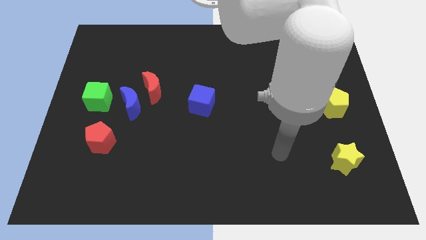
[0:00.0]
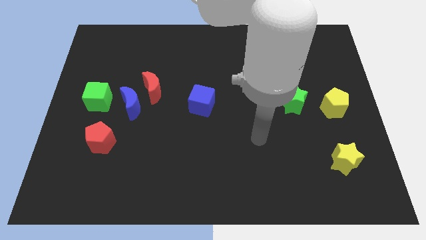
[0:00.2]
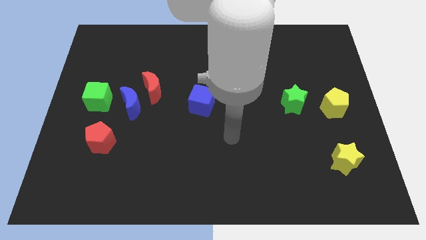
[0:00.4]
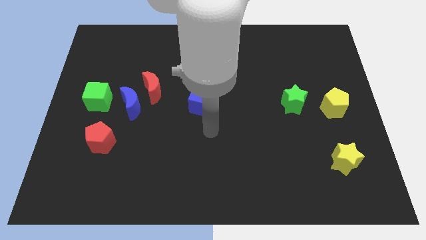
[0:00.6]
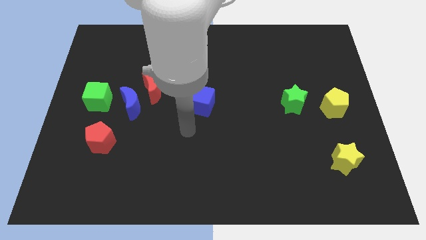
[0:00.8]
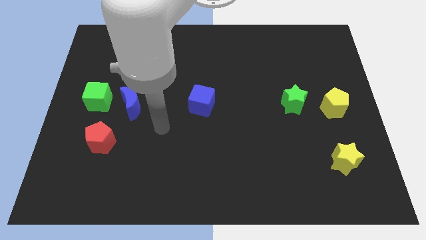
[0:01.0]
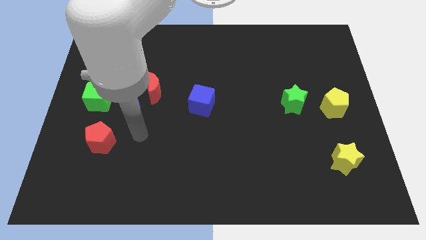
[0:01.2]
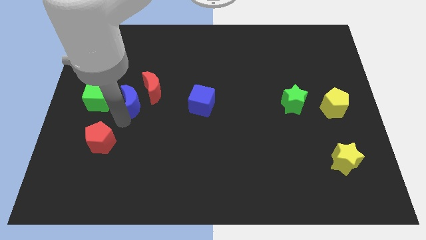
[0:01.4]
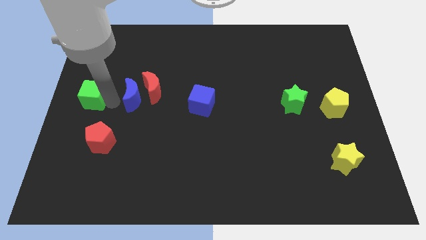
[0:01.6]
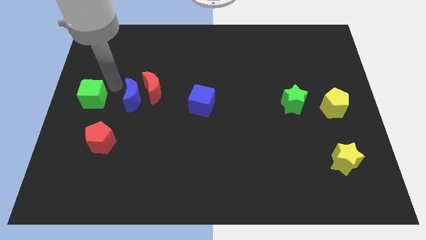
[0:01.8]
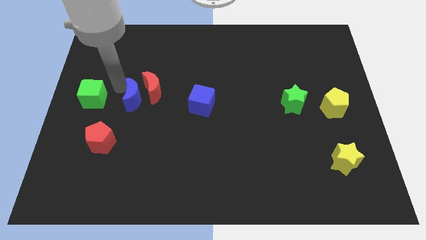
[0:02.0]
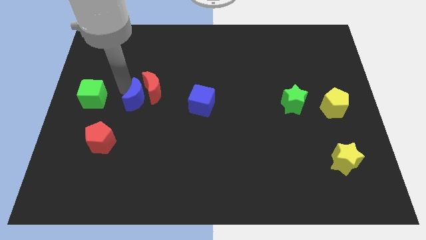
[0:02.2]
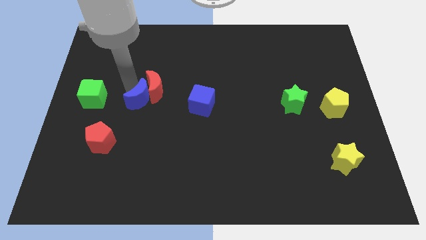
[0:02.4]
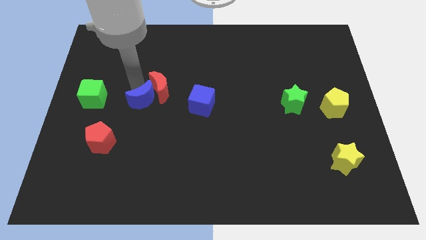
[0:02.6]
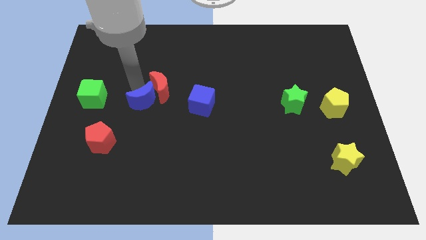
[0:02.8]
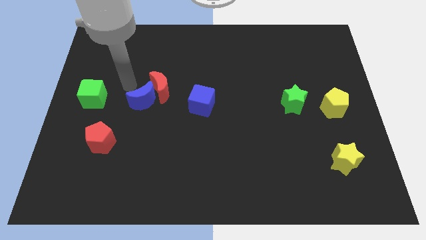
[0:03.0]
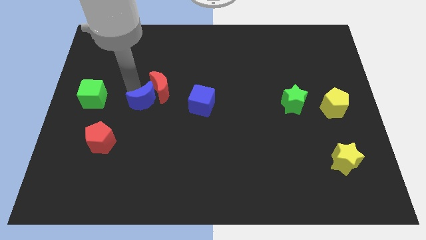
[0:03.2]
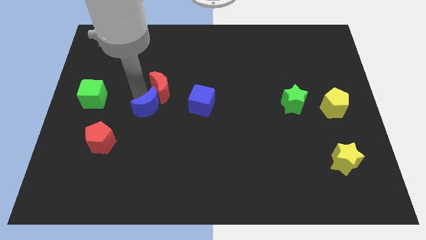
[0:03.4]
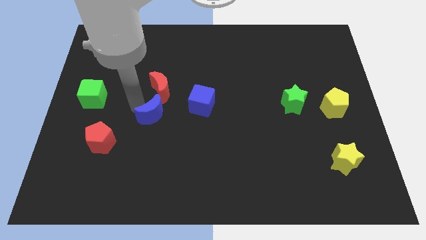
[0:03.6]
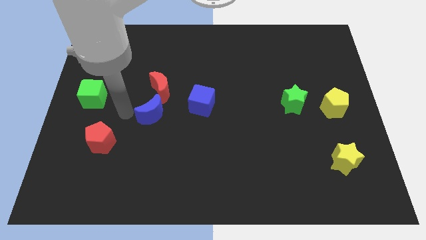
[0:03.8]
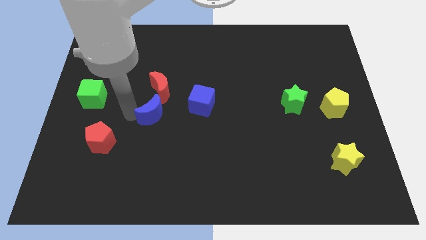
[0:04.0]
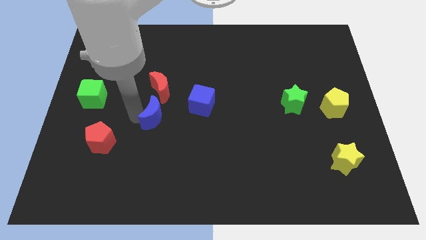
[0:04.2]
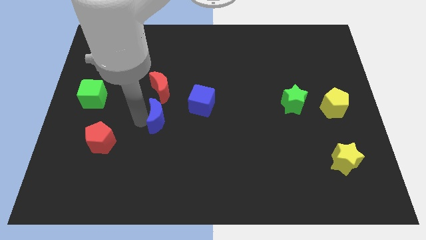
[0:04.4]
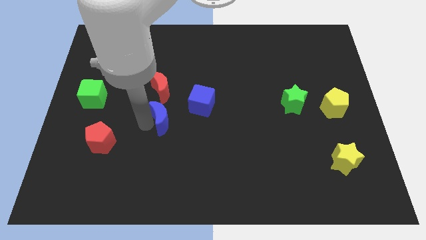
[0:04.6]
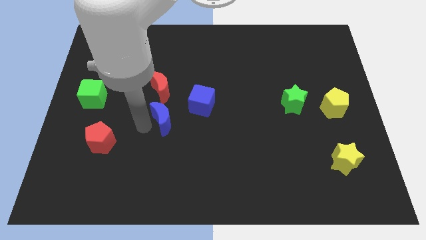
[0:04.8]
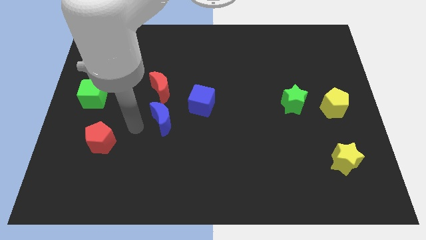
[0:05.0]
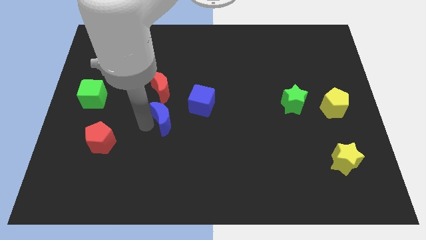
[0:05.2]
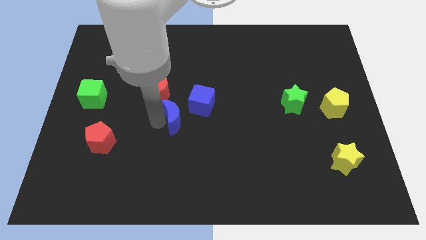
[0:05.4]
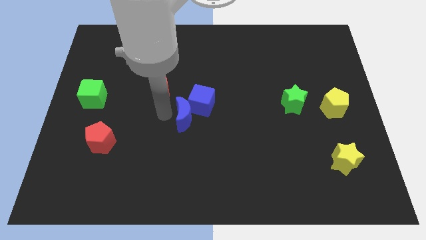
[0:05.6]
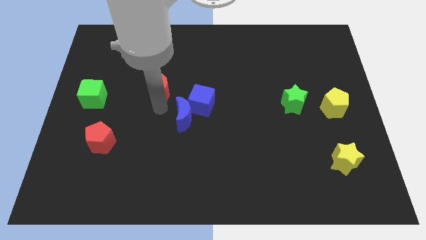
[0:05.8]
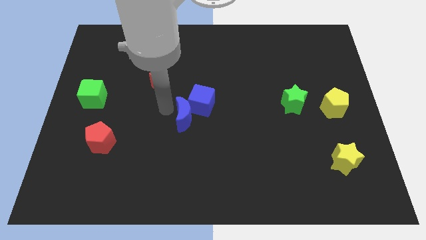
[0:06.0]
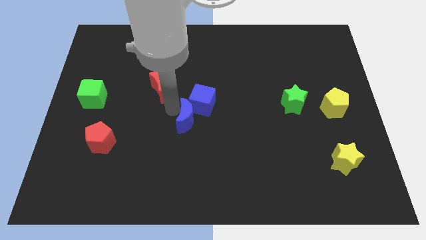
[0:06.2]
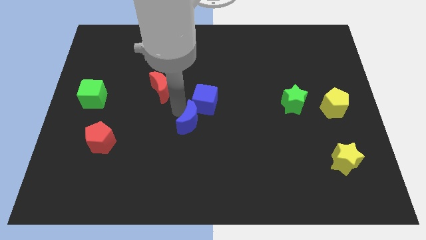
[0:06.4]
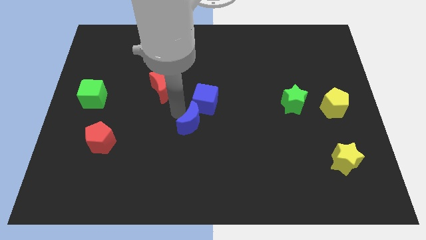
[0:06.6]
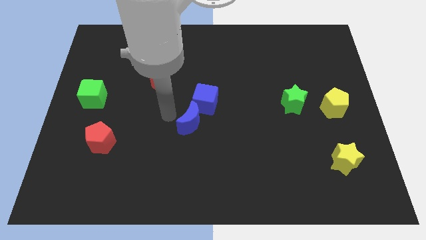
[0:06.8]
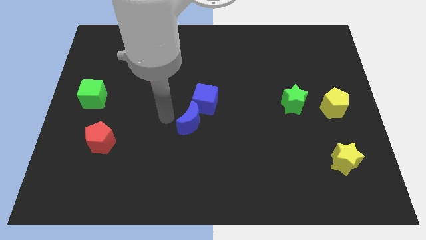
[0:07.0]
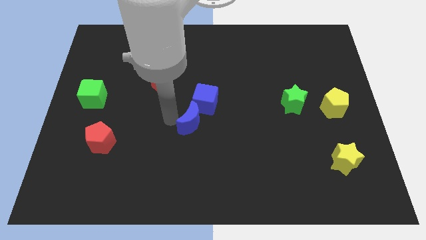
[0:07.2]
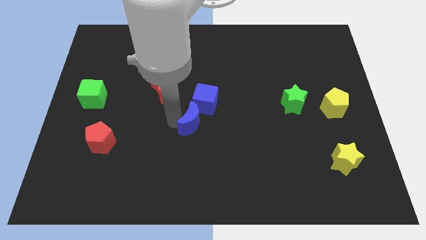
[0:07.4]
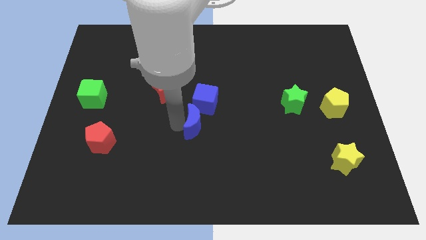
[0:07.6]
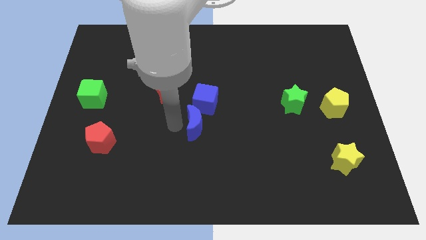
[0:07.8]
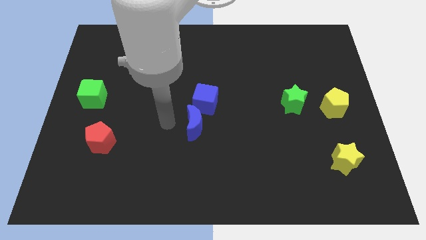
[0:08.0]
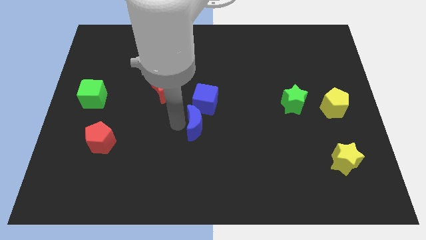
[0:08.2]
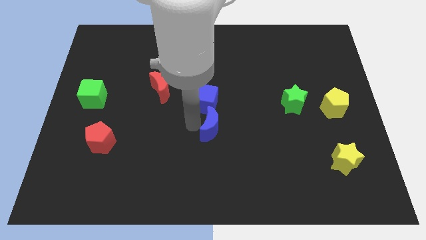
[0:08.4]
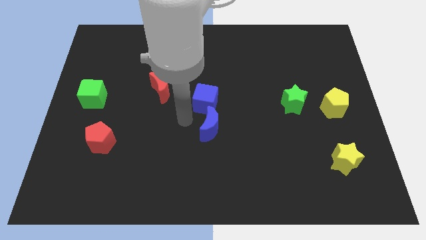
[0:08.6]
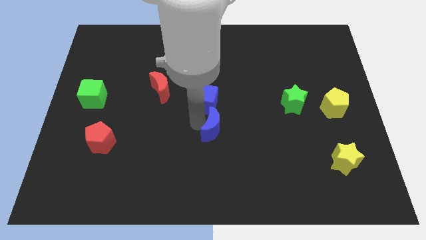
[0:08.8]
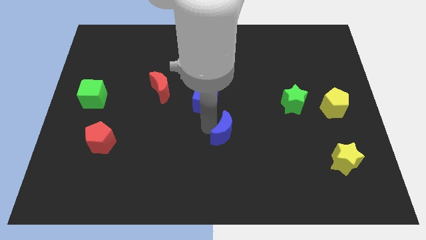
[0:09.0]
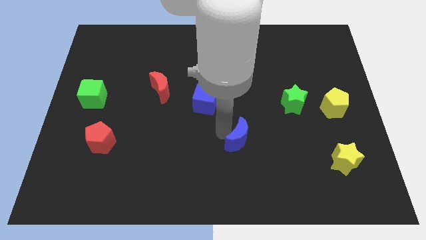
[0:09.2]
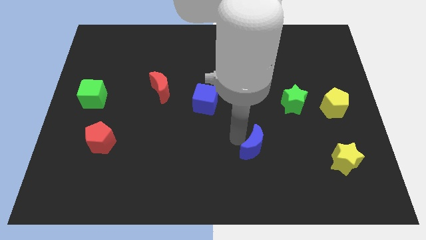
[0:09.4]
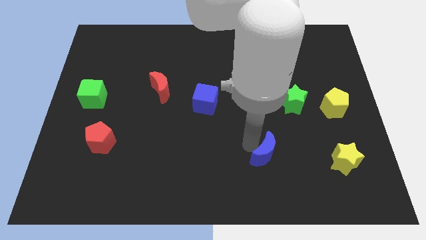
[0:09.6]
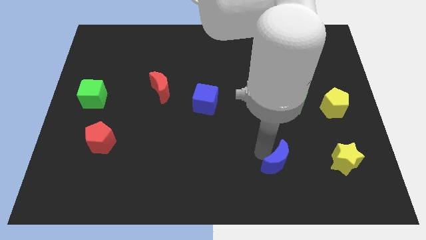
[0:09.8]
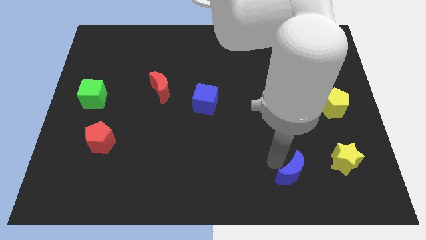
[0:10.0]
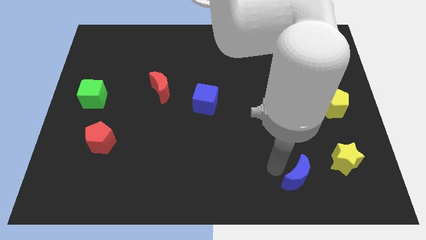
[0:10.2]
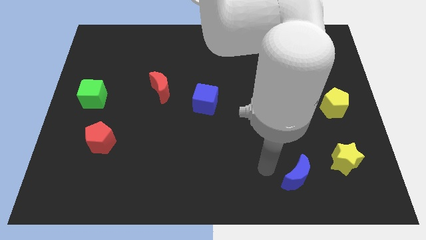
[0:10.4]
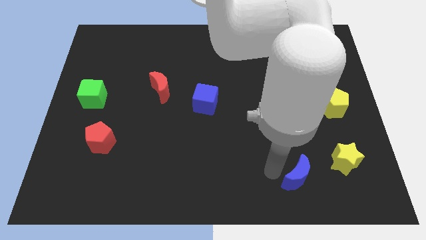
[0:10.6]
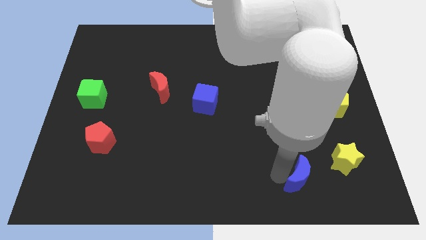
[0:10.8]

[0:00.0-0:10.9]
move the blue moon diagonally down and to the left of the yellow star

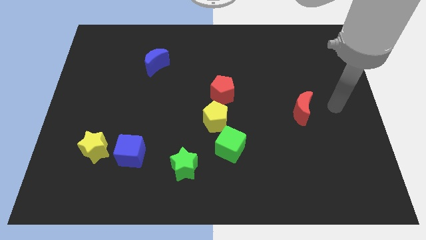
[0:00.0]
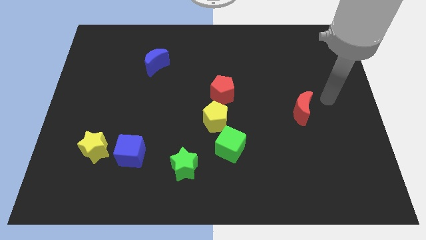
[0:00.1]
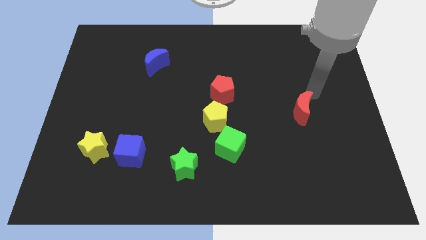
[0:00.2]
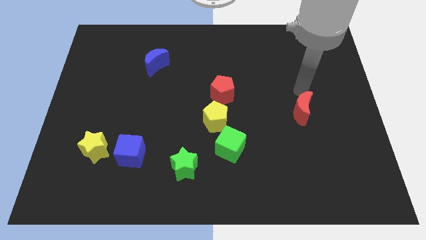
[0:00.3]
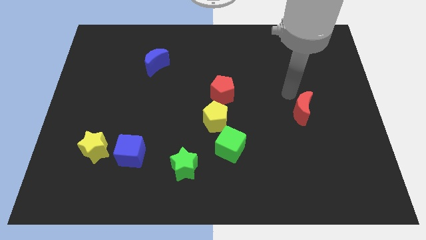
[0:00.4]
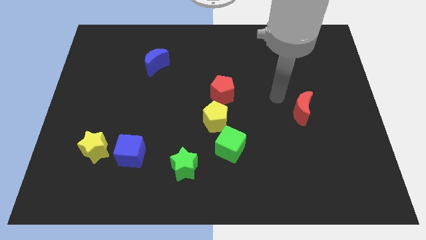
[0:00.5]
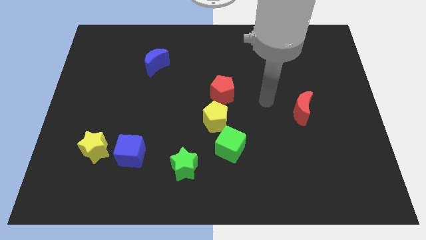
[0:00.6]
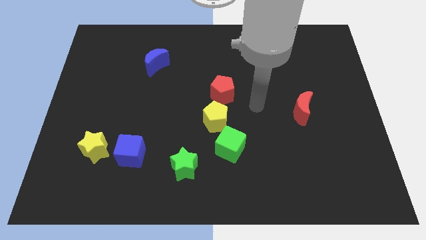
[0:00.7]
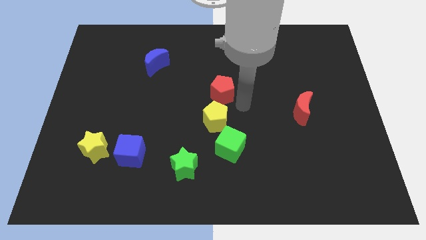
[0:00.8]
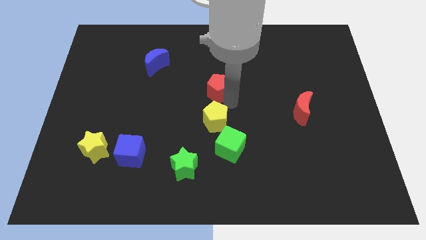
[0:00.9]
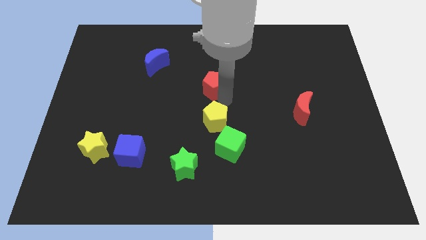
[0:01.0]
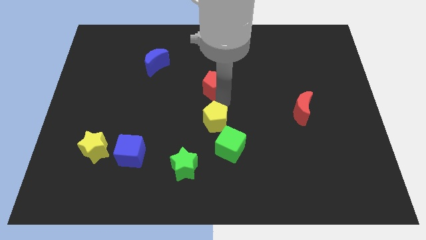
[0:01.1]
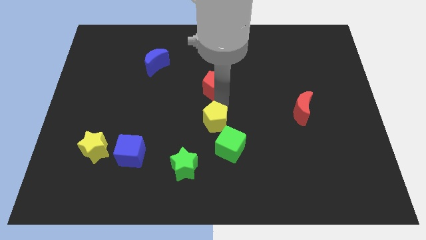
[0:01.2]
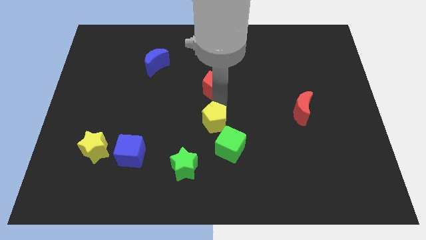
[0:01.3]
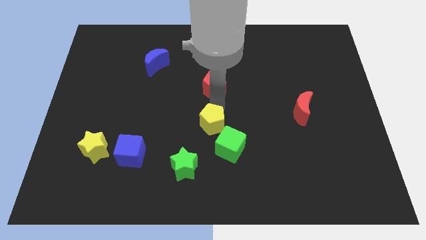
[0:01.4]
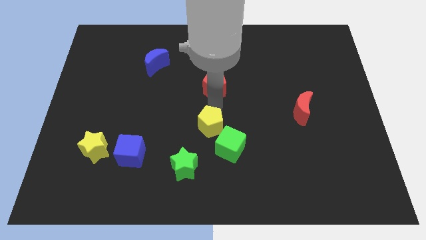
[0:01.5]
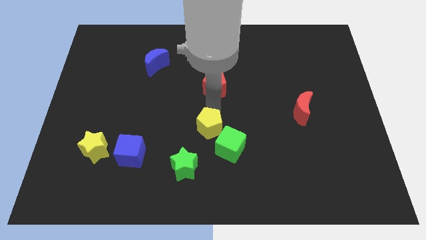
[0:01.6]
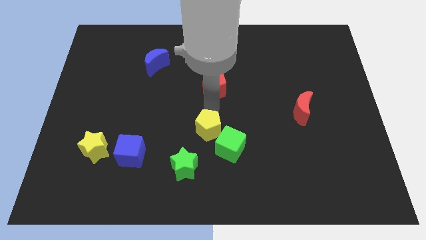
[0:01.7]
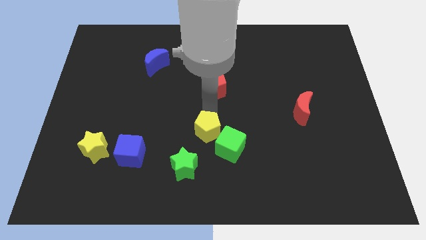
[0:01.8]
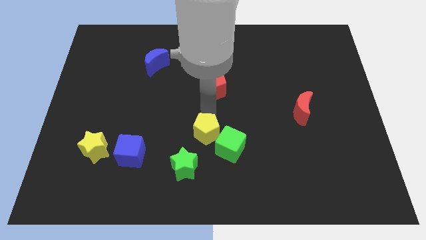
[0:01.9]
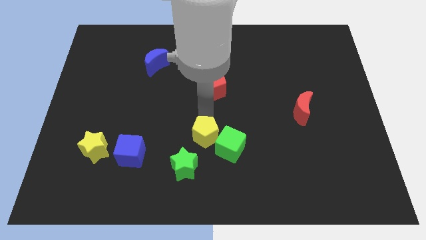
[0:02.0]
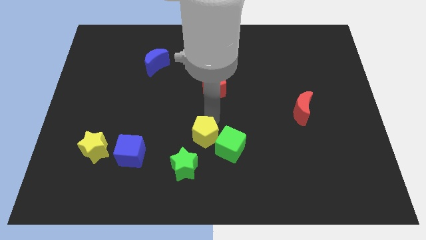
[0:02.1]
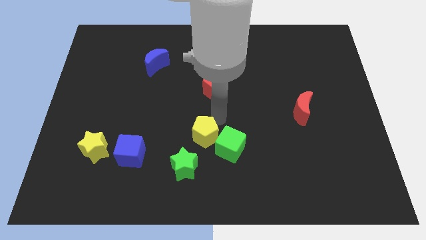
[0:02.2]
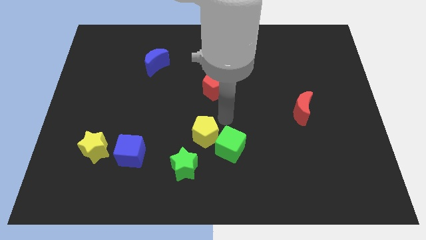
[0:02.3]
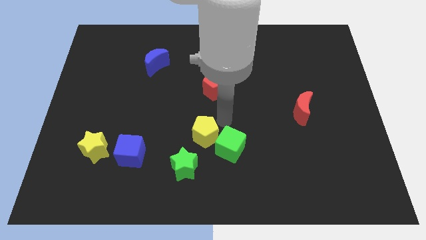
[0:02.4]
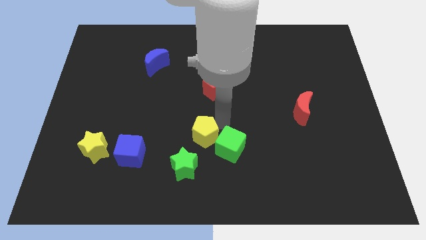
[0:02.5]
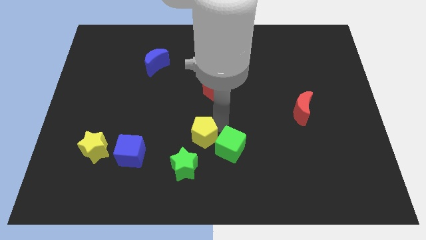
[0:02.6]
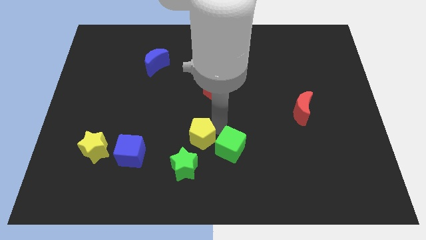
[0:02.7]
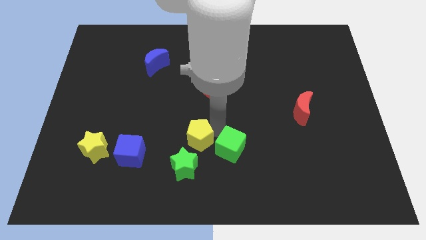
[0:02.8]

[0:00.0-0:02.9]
move the yellow pentagon right of the blue cube
